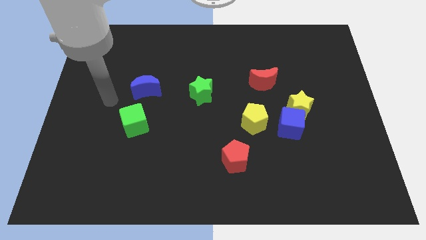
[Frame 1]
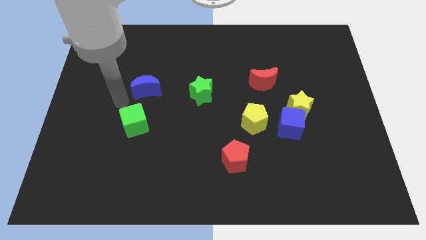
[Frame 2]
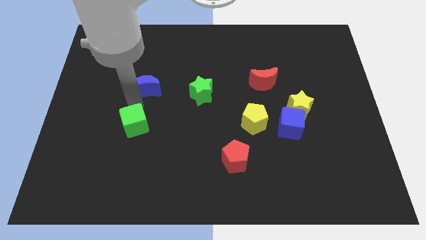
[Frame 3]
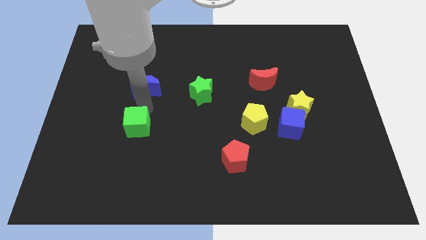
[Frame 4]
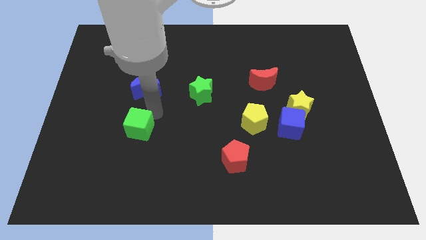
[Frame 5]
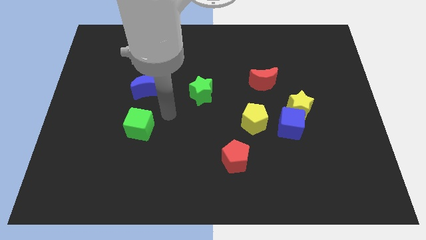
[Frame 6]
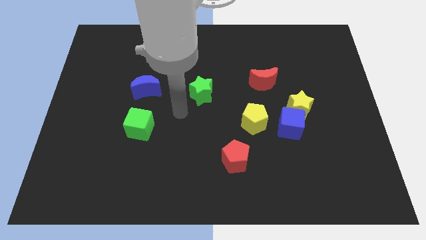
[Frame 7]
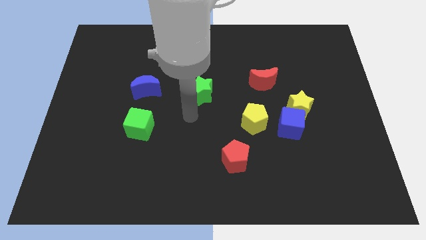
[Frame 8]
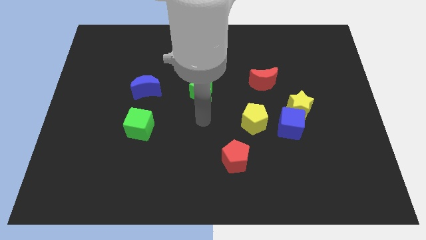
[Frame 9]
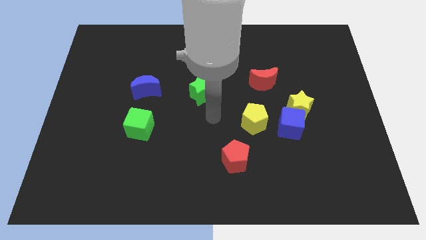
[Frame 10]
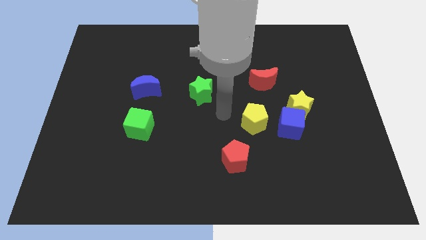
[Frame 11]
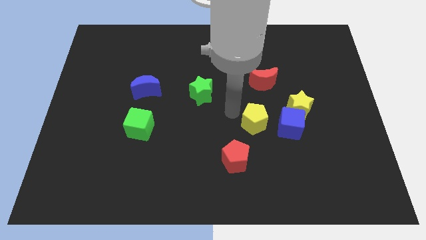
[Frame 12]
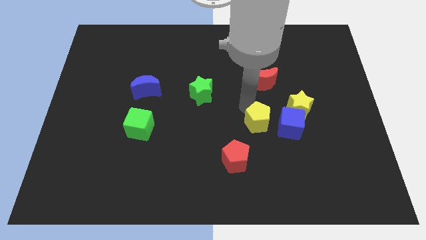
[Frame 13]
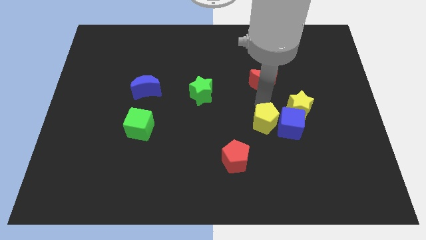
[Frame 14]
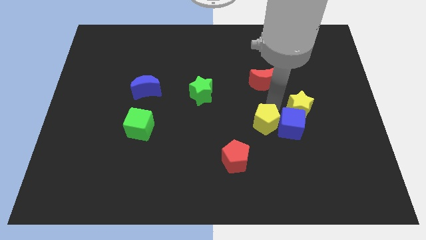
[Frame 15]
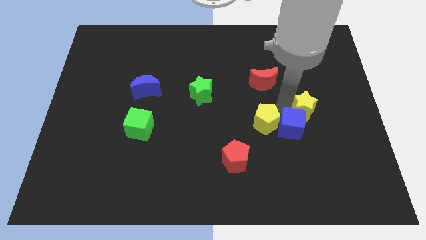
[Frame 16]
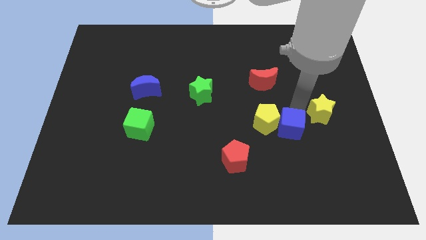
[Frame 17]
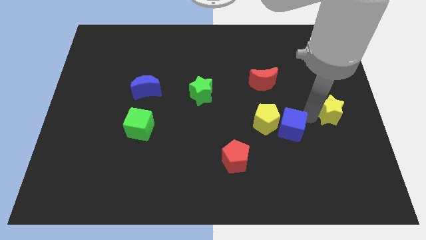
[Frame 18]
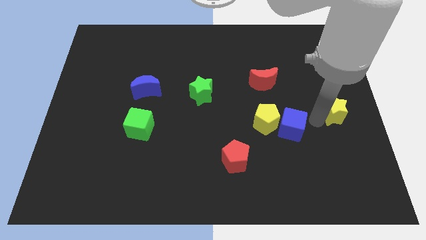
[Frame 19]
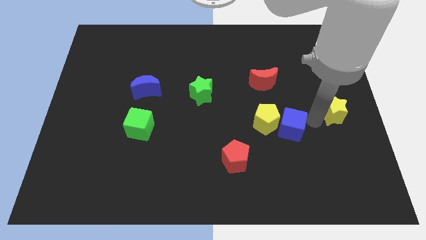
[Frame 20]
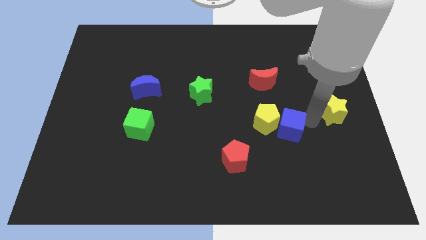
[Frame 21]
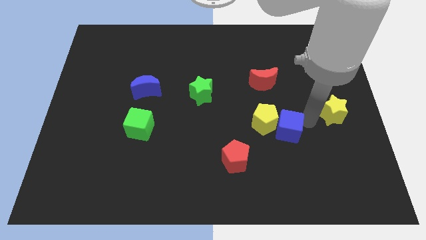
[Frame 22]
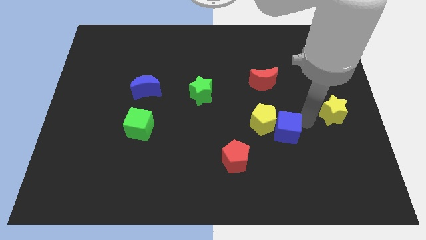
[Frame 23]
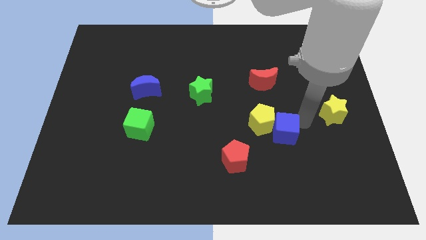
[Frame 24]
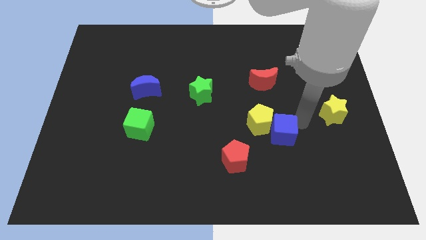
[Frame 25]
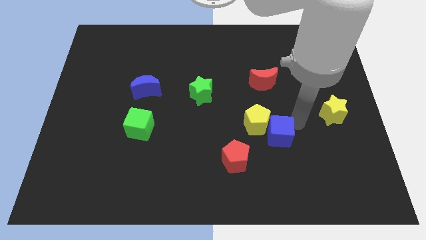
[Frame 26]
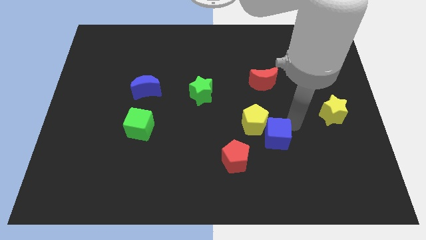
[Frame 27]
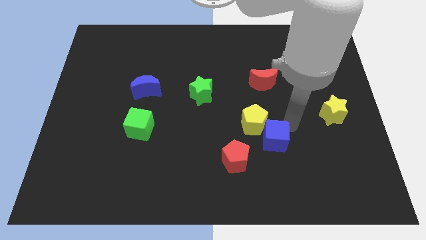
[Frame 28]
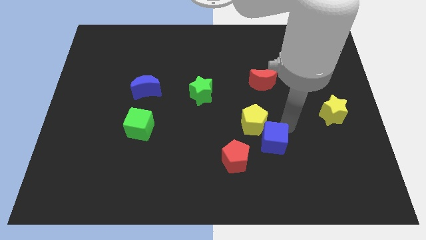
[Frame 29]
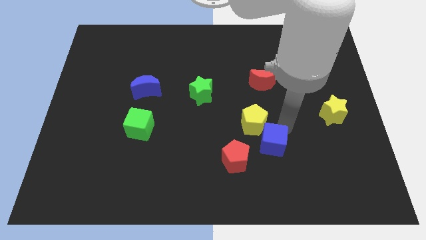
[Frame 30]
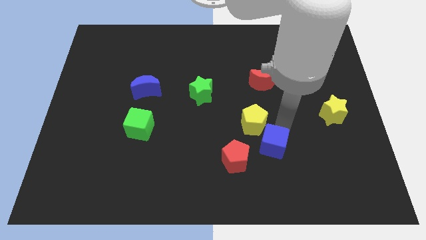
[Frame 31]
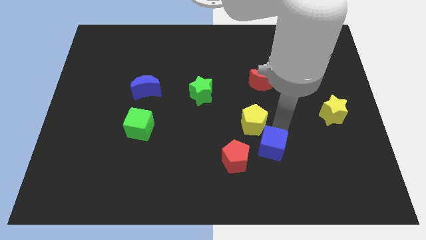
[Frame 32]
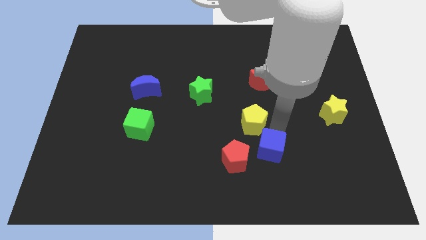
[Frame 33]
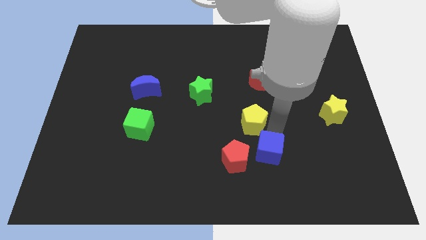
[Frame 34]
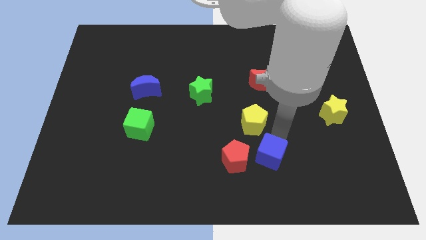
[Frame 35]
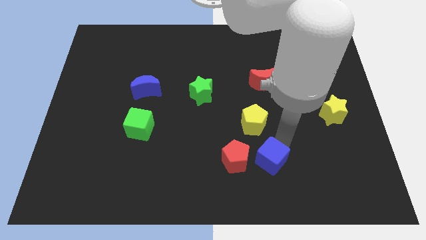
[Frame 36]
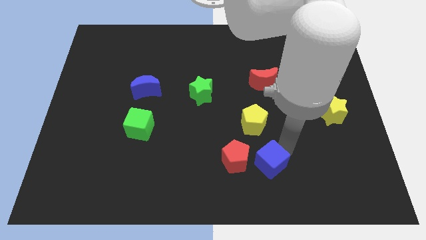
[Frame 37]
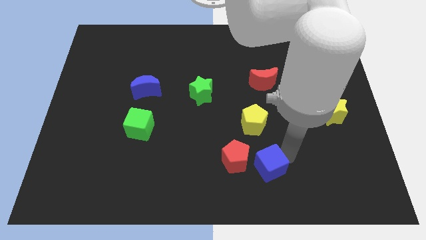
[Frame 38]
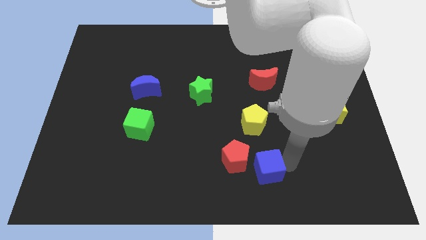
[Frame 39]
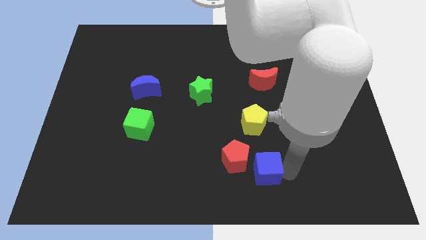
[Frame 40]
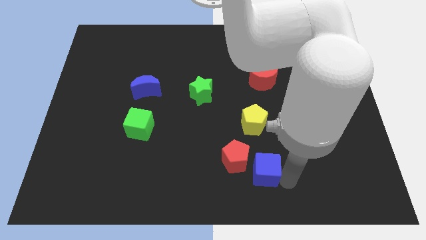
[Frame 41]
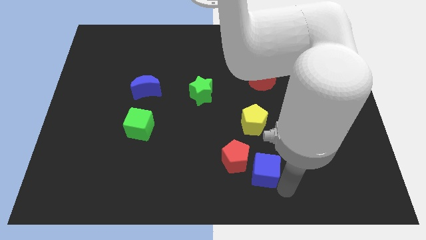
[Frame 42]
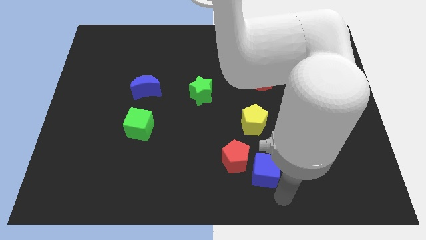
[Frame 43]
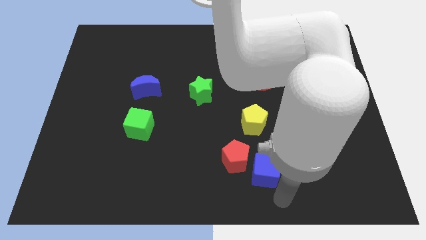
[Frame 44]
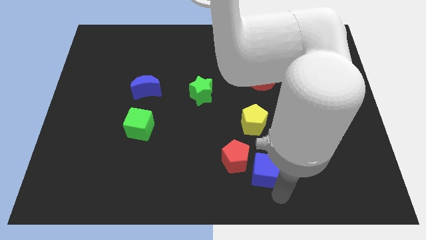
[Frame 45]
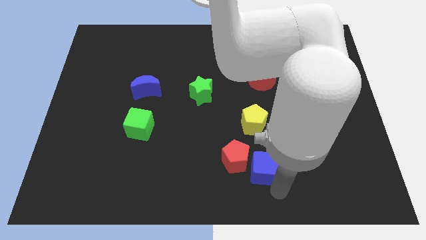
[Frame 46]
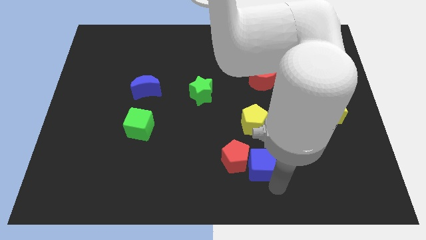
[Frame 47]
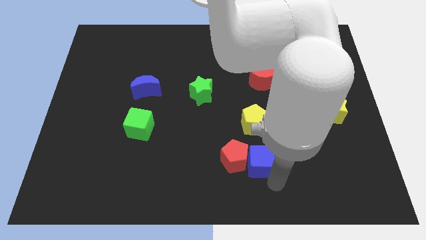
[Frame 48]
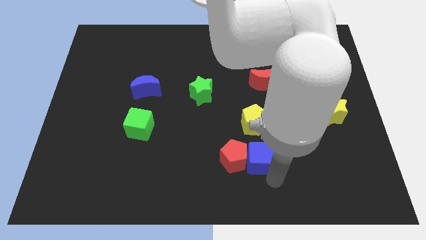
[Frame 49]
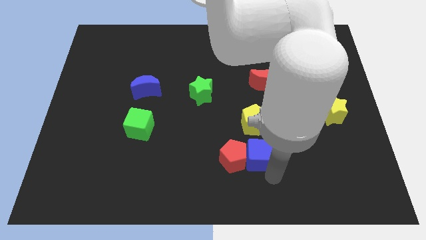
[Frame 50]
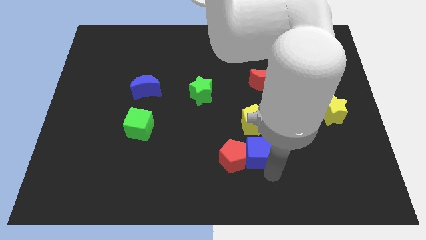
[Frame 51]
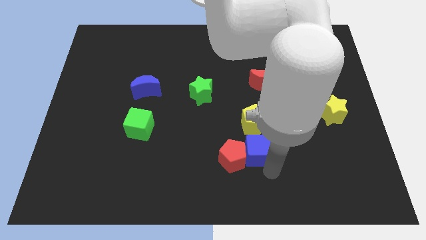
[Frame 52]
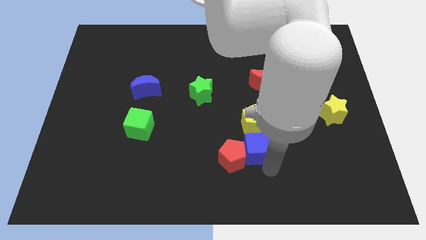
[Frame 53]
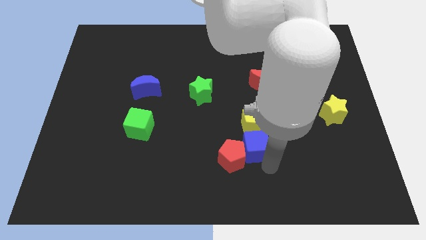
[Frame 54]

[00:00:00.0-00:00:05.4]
push the blue cube to the left a little

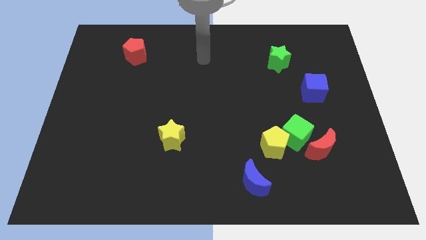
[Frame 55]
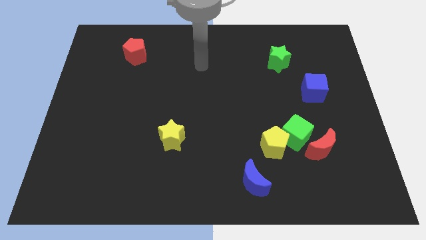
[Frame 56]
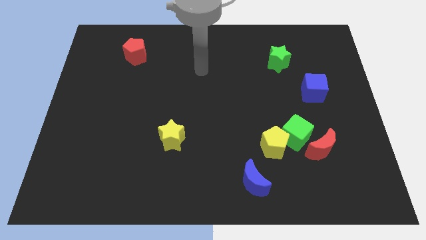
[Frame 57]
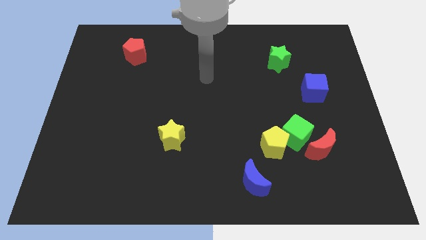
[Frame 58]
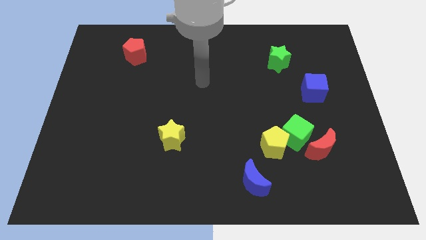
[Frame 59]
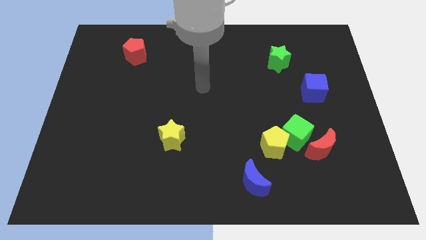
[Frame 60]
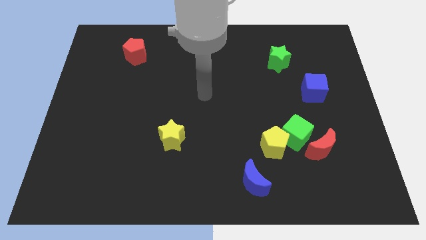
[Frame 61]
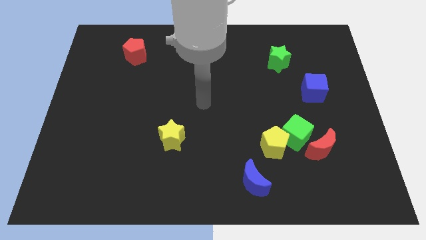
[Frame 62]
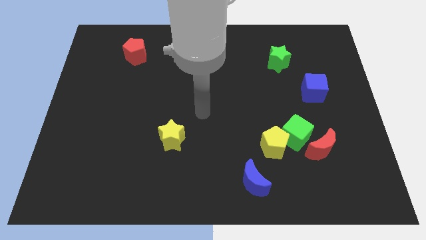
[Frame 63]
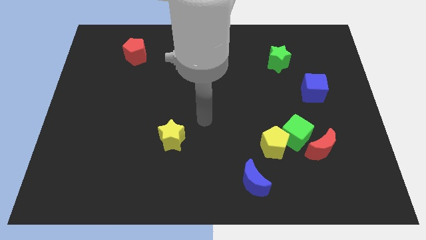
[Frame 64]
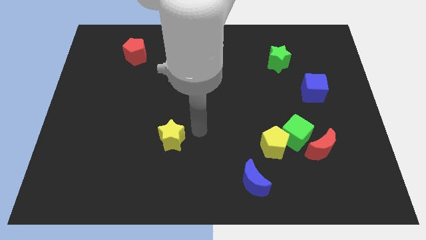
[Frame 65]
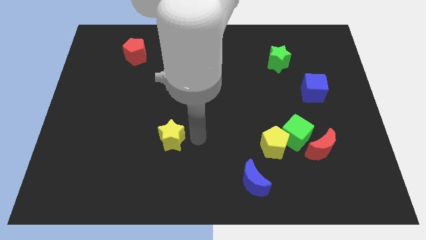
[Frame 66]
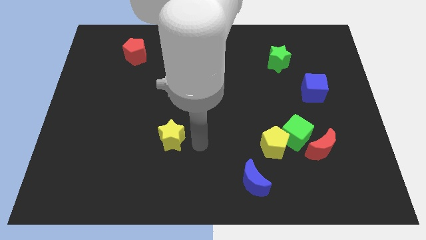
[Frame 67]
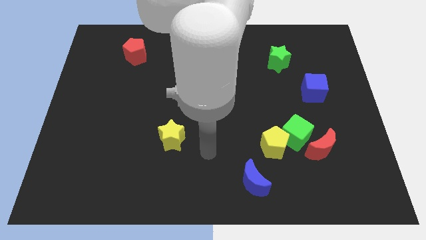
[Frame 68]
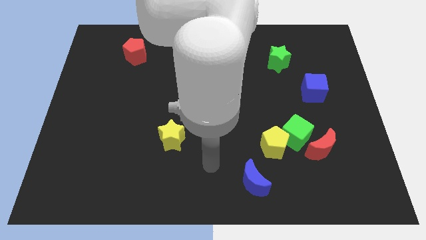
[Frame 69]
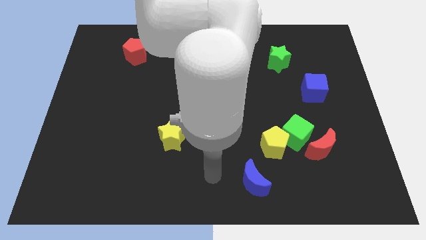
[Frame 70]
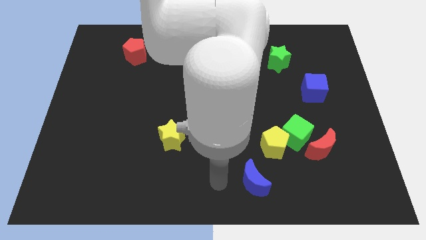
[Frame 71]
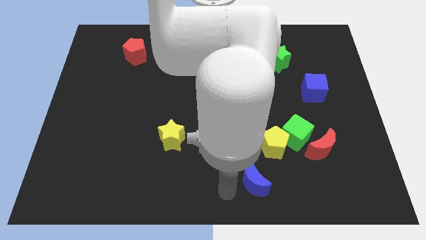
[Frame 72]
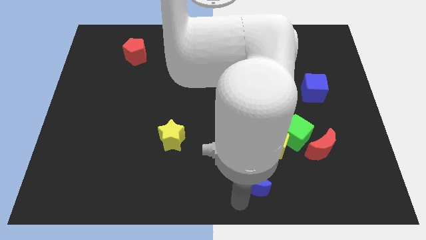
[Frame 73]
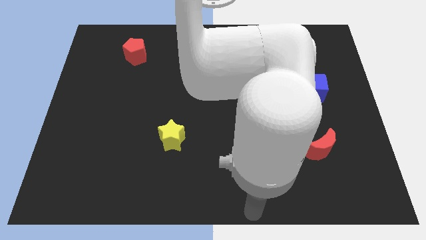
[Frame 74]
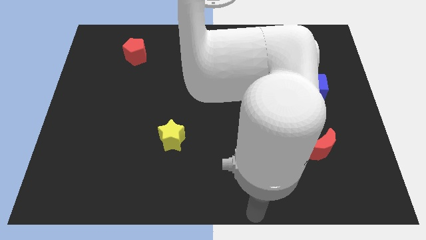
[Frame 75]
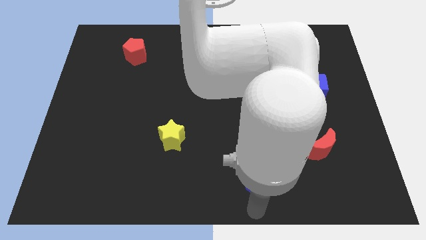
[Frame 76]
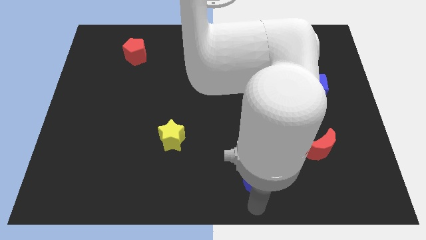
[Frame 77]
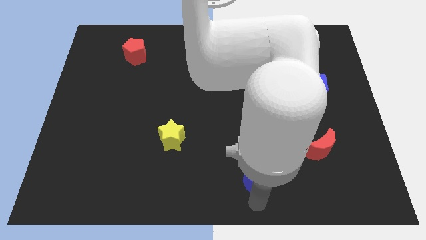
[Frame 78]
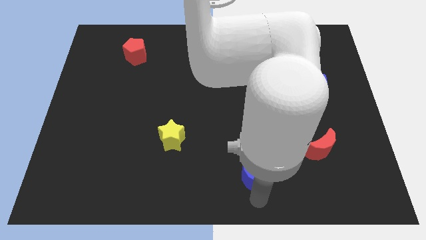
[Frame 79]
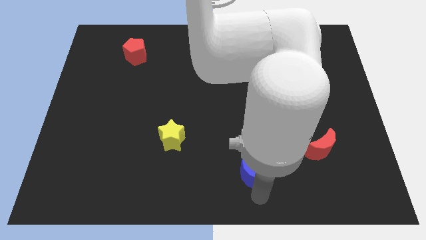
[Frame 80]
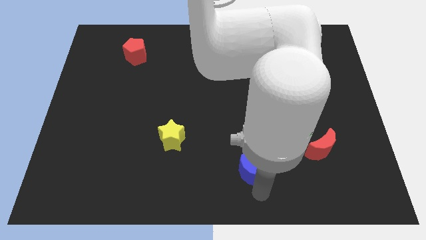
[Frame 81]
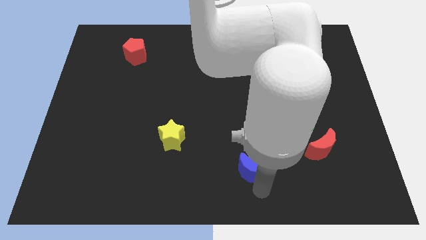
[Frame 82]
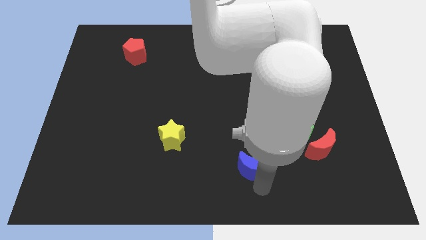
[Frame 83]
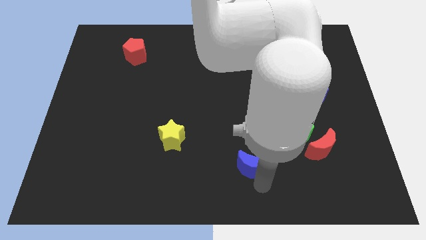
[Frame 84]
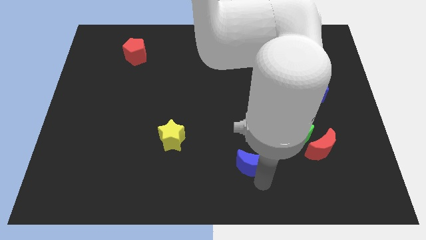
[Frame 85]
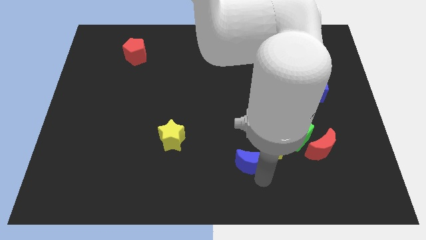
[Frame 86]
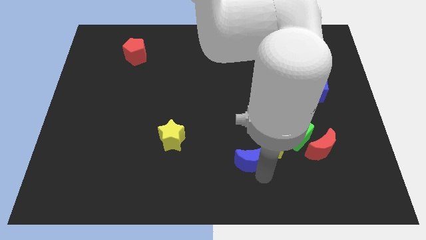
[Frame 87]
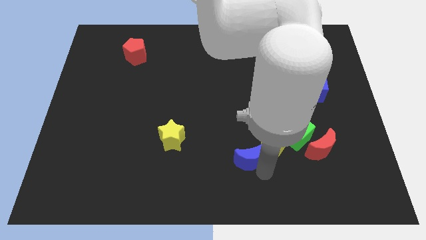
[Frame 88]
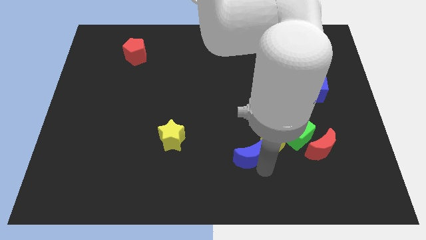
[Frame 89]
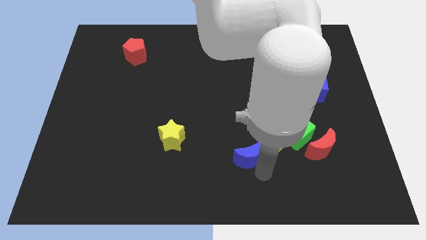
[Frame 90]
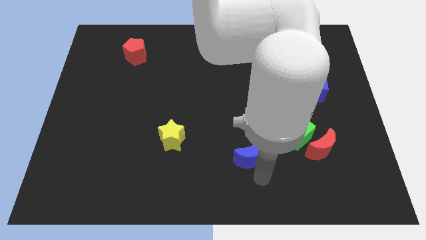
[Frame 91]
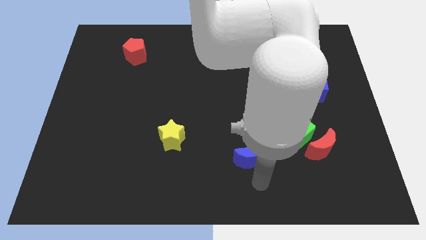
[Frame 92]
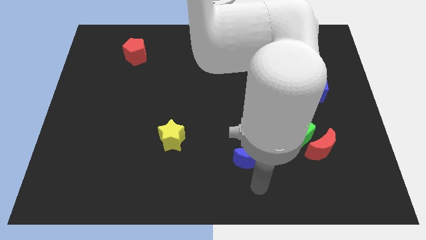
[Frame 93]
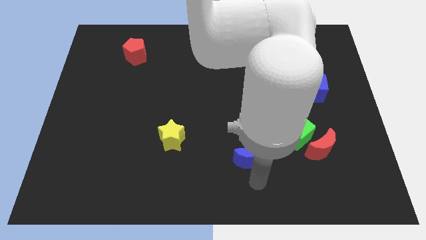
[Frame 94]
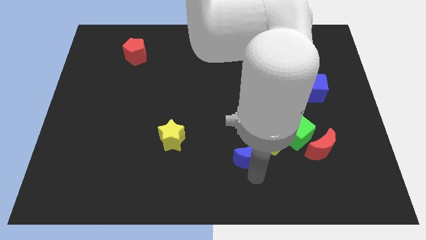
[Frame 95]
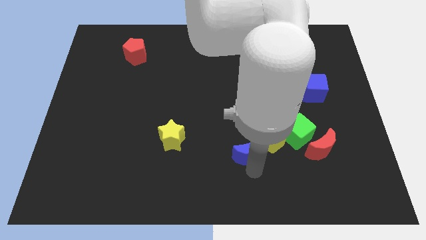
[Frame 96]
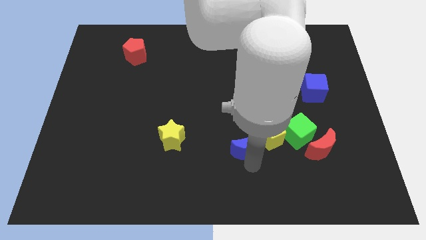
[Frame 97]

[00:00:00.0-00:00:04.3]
slightly move the blue moon up
